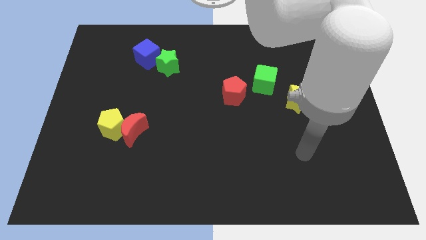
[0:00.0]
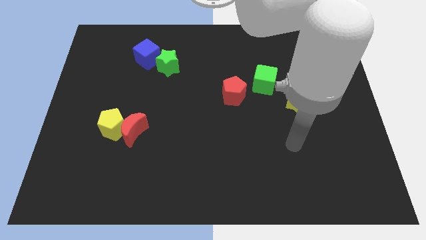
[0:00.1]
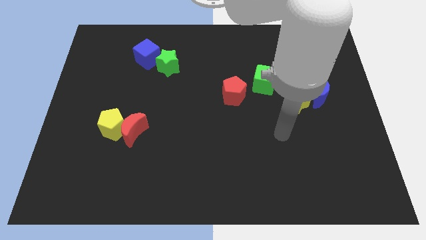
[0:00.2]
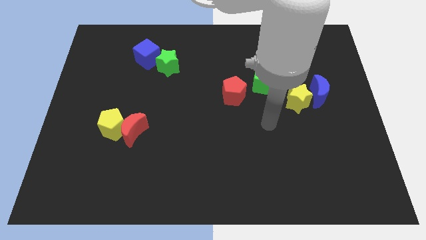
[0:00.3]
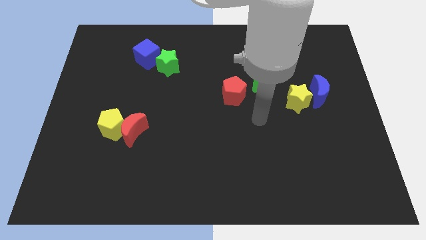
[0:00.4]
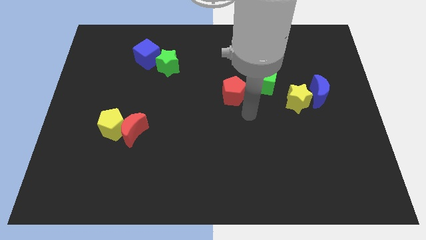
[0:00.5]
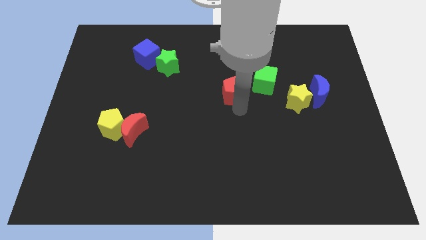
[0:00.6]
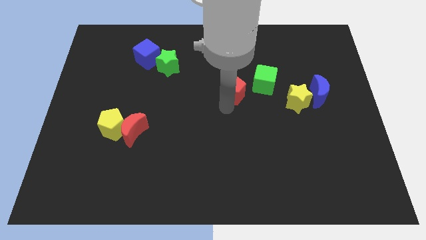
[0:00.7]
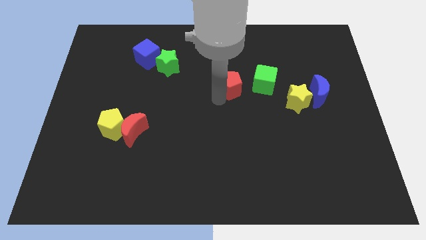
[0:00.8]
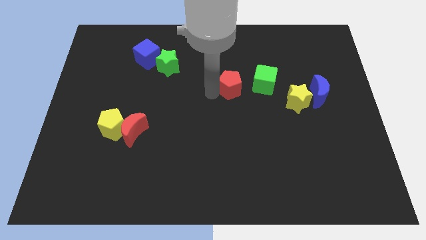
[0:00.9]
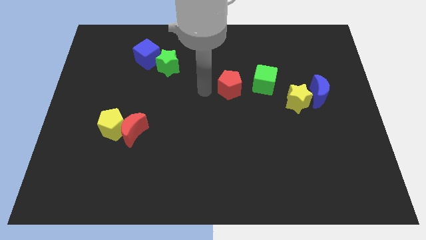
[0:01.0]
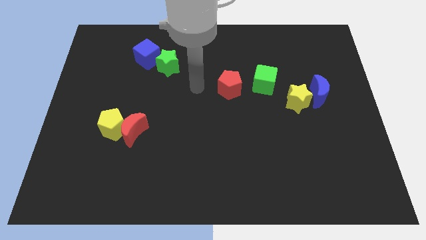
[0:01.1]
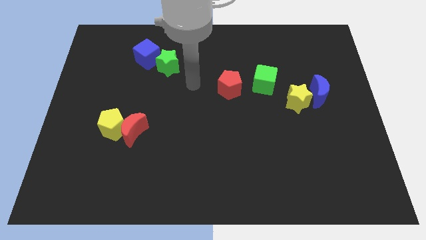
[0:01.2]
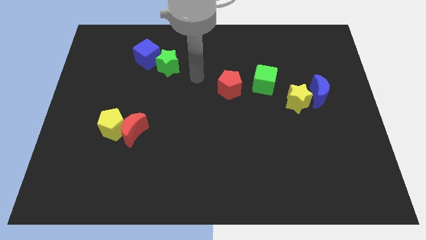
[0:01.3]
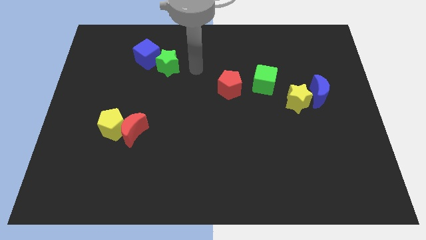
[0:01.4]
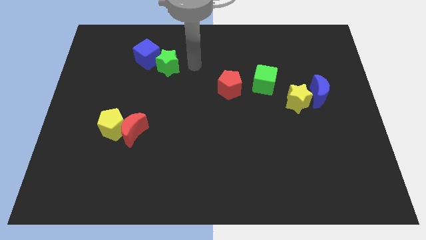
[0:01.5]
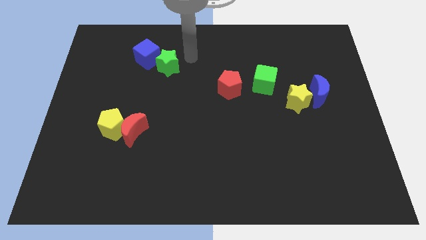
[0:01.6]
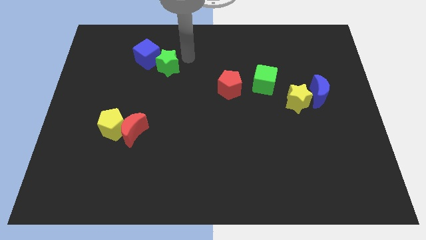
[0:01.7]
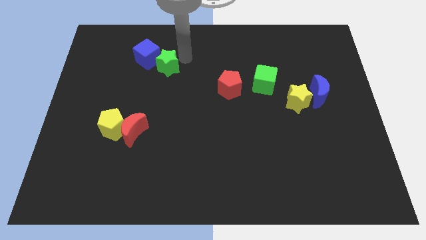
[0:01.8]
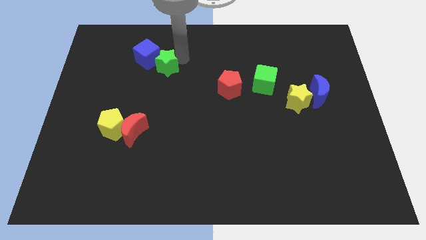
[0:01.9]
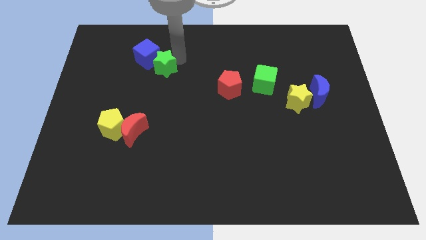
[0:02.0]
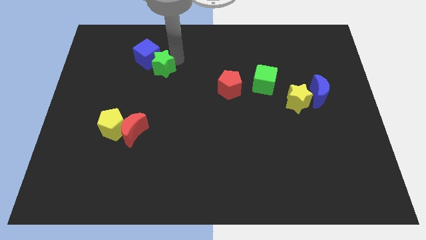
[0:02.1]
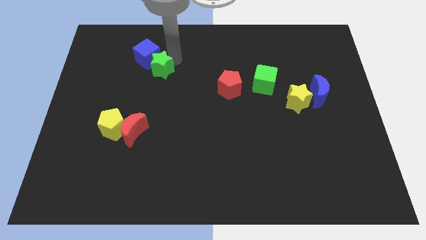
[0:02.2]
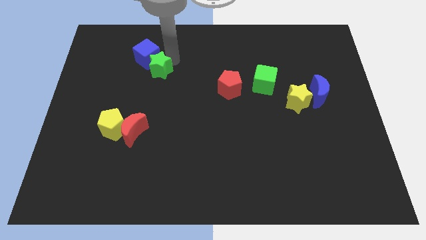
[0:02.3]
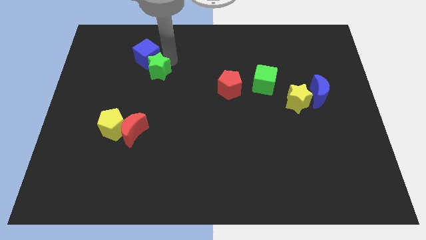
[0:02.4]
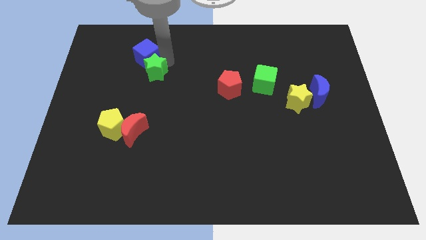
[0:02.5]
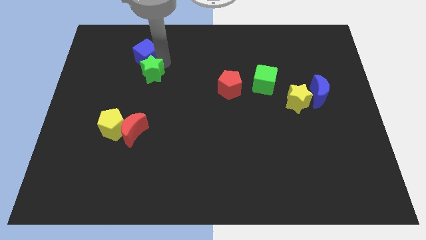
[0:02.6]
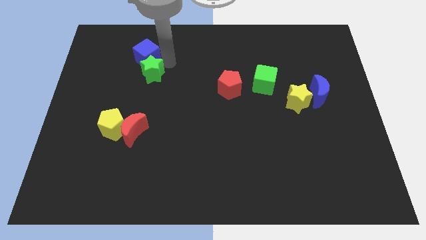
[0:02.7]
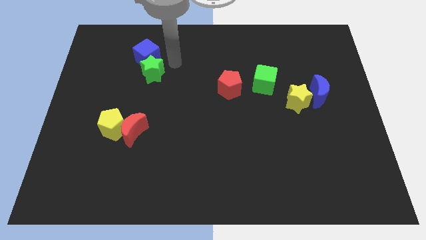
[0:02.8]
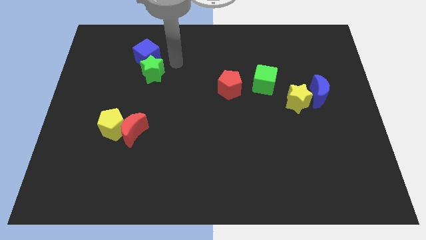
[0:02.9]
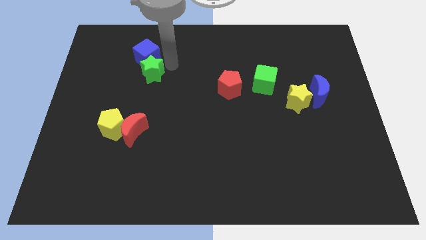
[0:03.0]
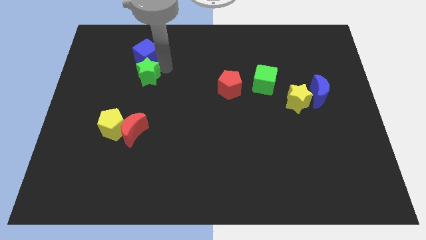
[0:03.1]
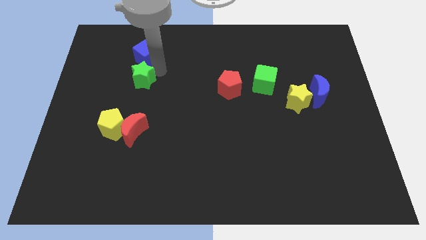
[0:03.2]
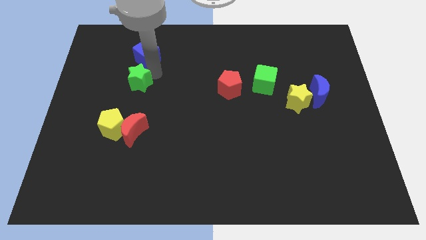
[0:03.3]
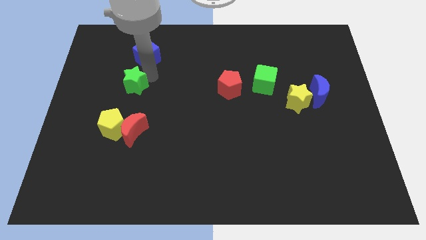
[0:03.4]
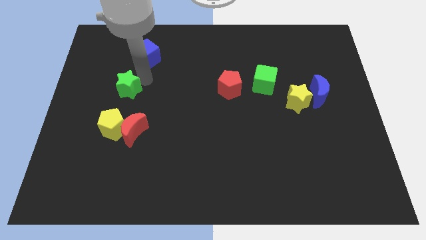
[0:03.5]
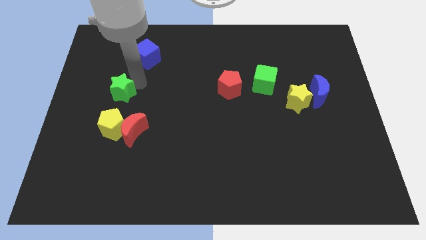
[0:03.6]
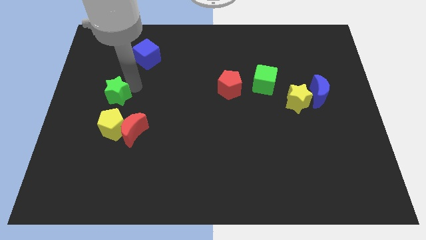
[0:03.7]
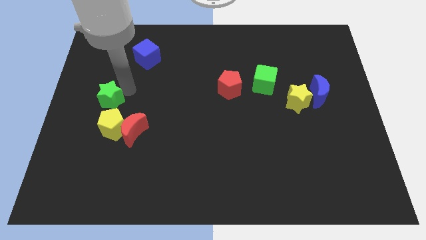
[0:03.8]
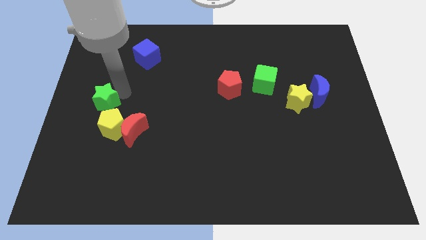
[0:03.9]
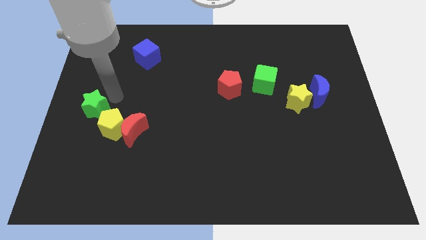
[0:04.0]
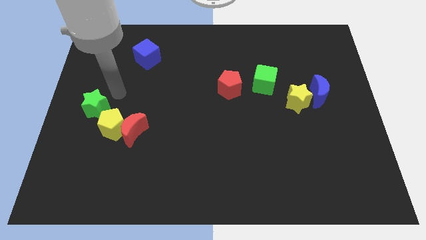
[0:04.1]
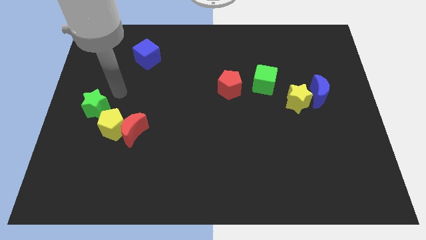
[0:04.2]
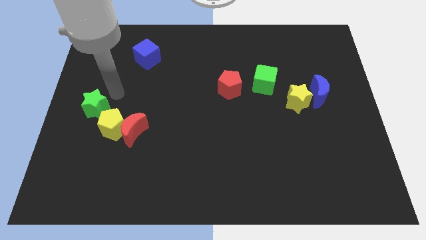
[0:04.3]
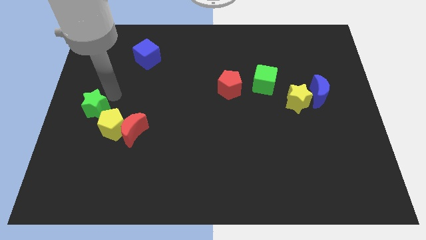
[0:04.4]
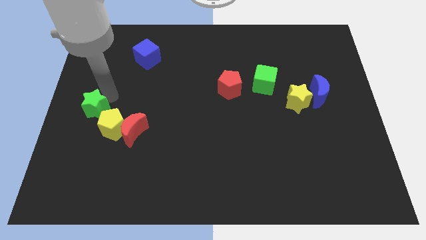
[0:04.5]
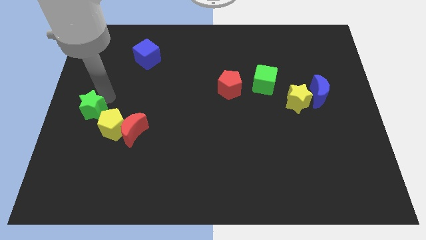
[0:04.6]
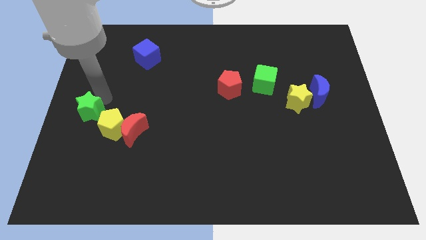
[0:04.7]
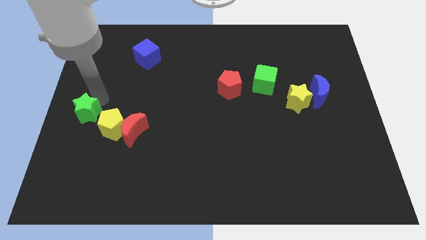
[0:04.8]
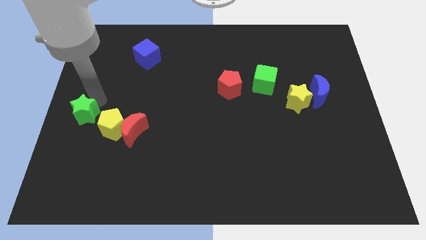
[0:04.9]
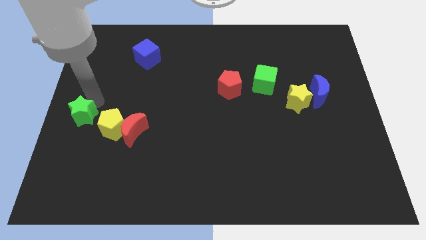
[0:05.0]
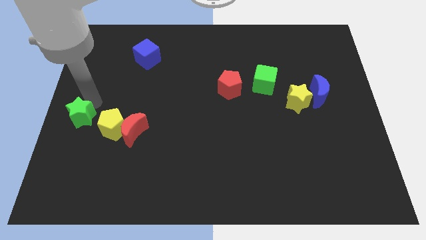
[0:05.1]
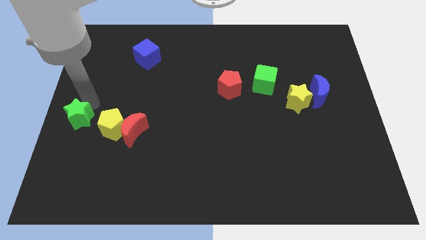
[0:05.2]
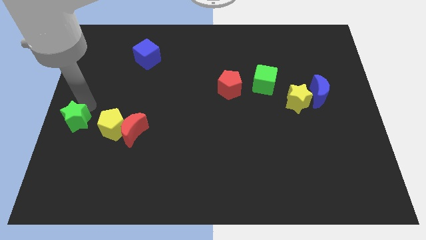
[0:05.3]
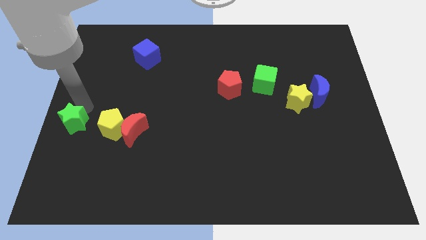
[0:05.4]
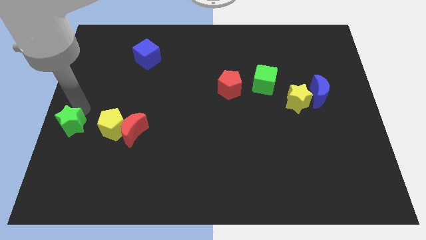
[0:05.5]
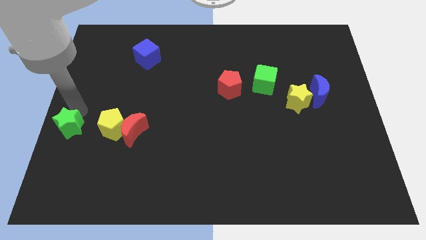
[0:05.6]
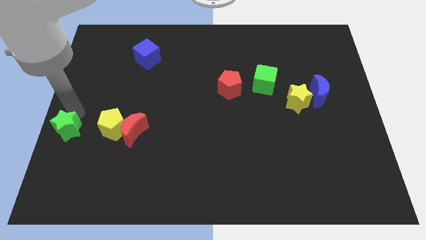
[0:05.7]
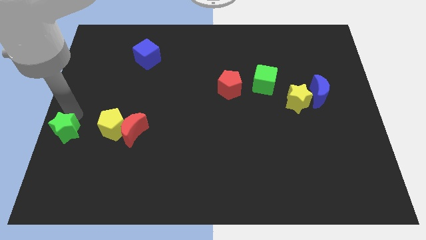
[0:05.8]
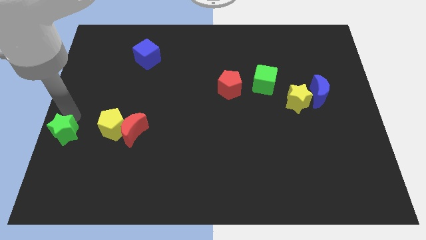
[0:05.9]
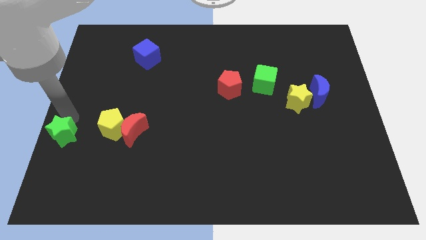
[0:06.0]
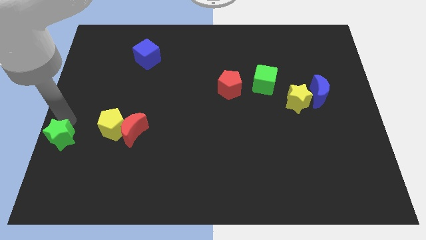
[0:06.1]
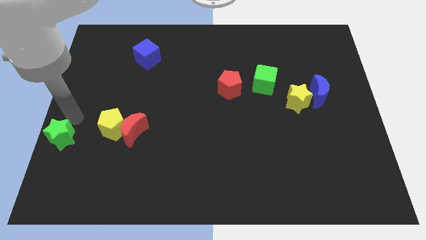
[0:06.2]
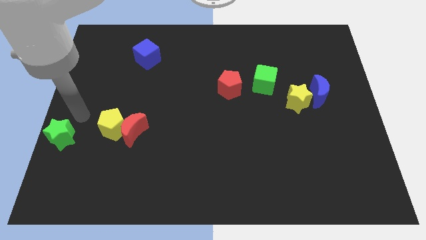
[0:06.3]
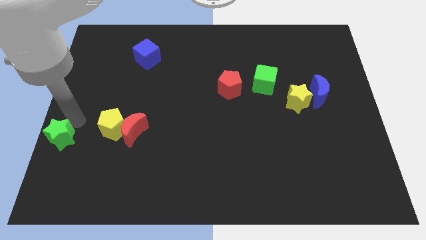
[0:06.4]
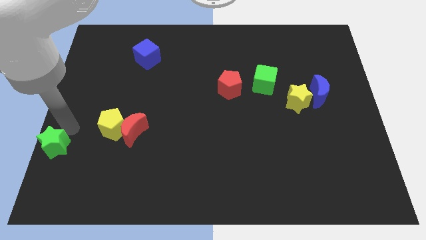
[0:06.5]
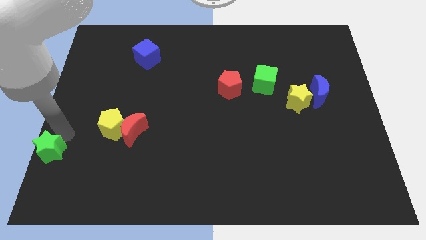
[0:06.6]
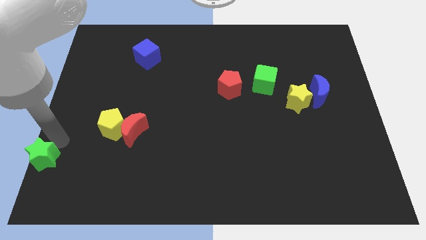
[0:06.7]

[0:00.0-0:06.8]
put the green star to the bottom left corner

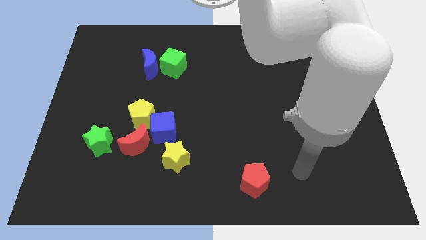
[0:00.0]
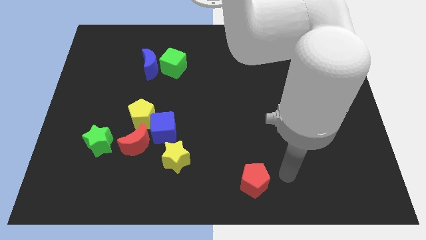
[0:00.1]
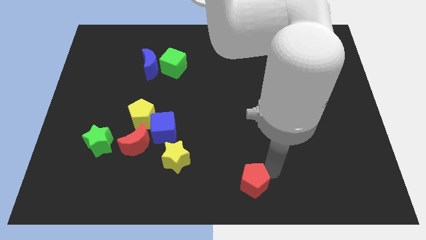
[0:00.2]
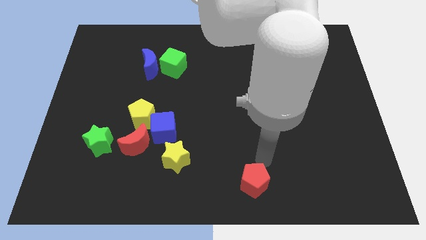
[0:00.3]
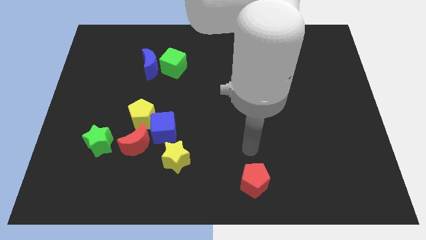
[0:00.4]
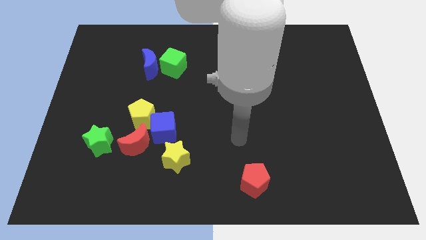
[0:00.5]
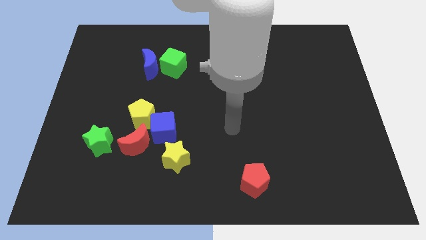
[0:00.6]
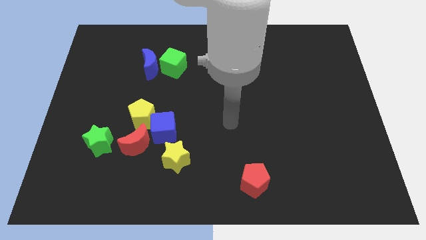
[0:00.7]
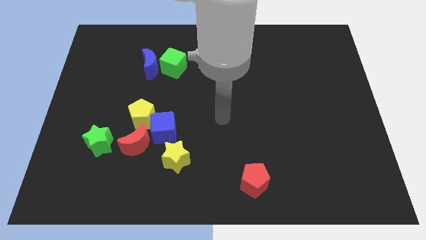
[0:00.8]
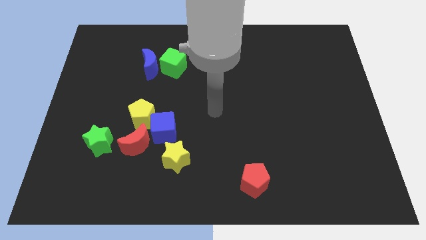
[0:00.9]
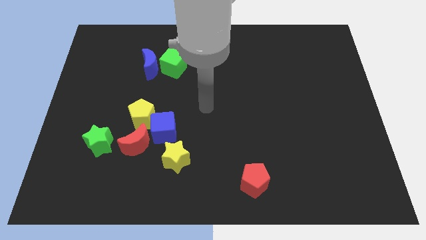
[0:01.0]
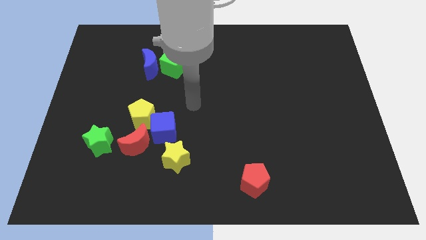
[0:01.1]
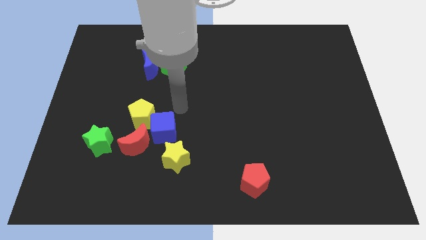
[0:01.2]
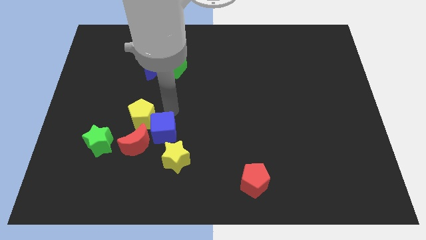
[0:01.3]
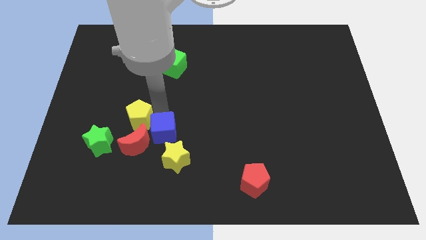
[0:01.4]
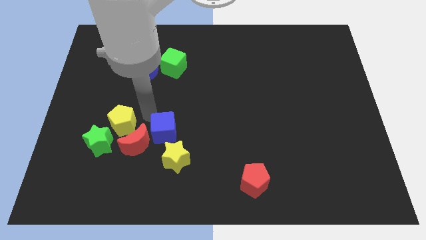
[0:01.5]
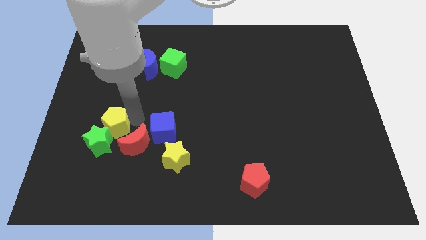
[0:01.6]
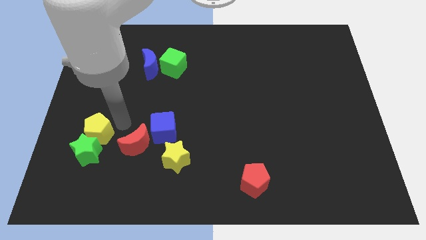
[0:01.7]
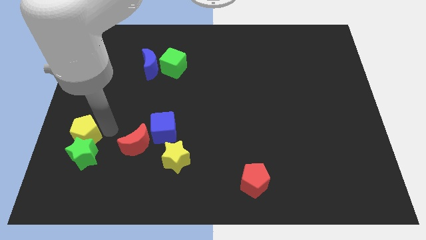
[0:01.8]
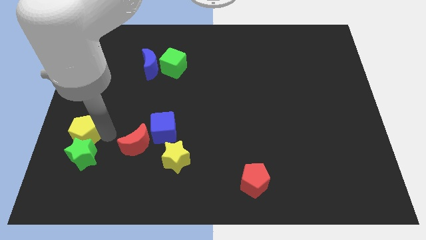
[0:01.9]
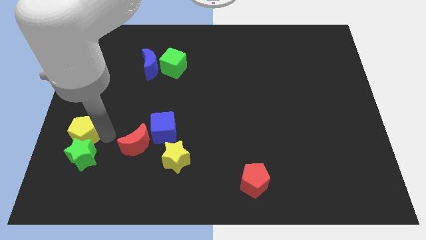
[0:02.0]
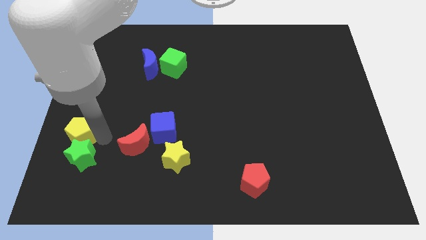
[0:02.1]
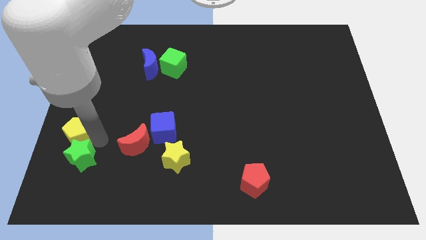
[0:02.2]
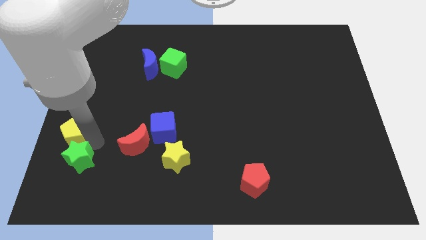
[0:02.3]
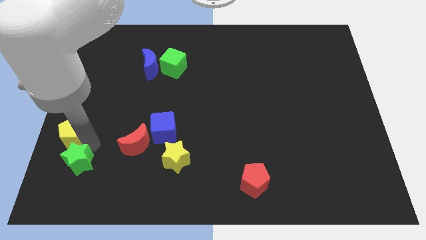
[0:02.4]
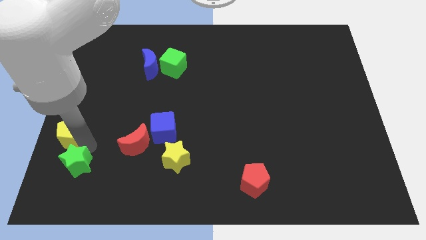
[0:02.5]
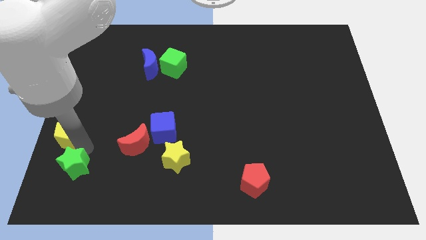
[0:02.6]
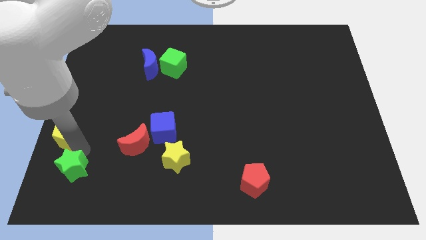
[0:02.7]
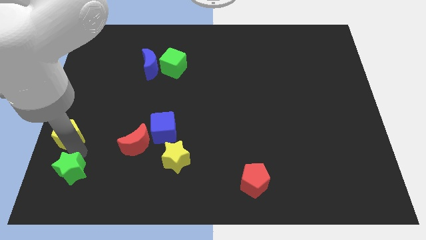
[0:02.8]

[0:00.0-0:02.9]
move the green star to the bottom left of the board
